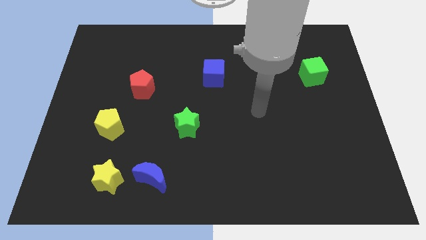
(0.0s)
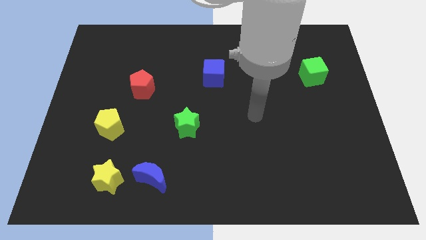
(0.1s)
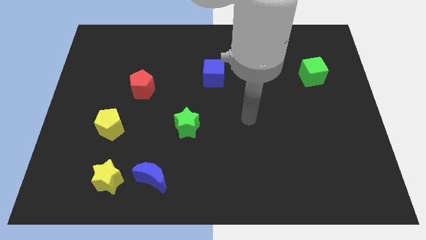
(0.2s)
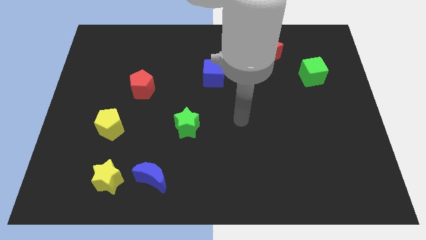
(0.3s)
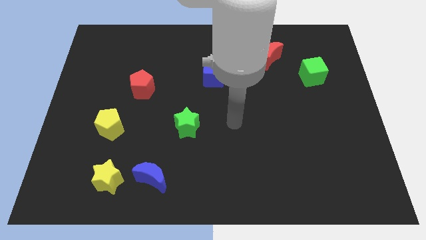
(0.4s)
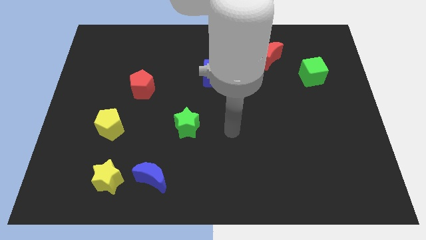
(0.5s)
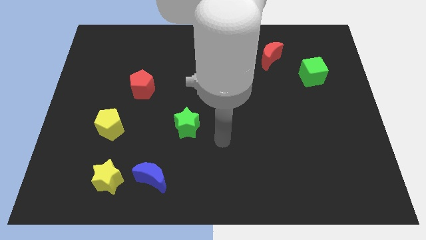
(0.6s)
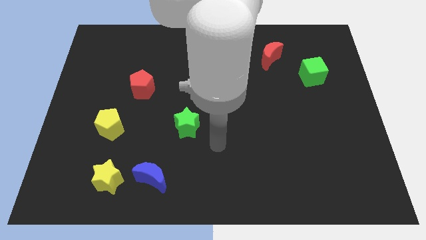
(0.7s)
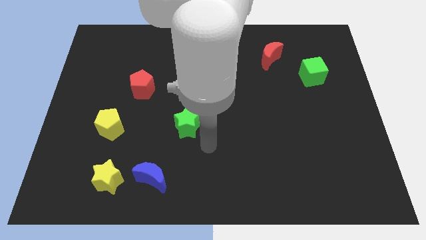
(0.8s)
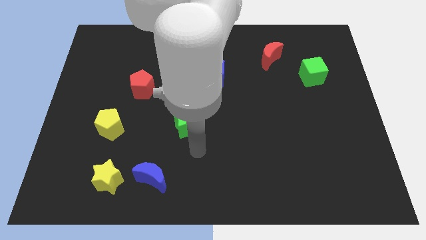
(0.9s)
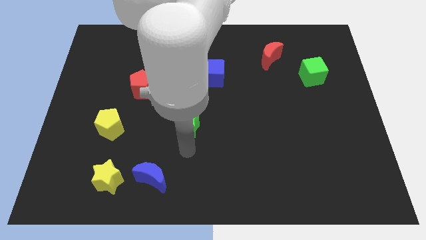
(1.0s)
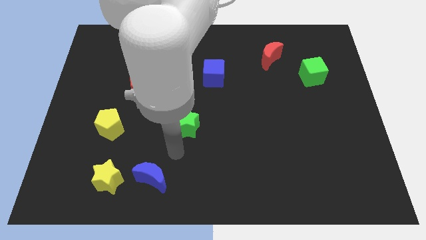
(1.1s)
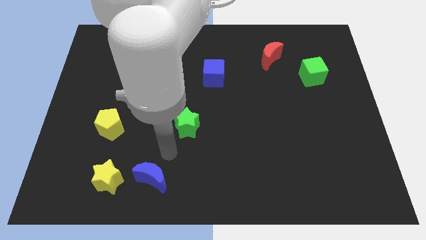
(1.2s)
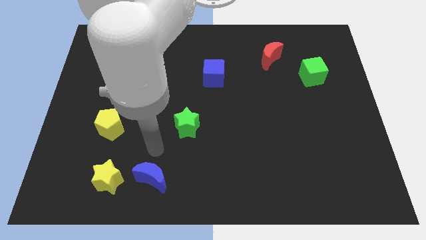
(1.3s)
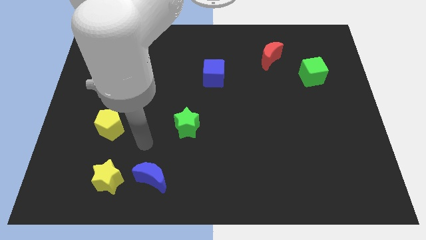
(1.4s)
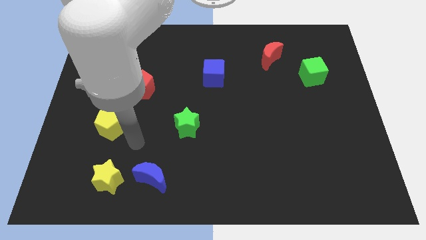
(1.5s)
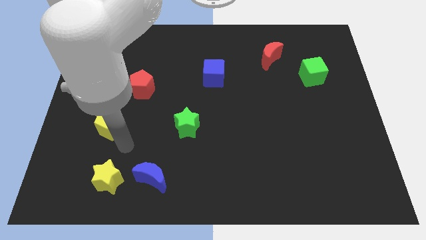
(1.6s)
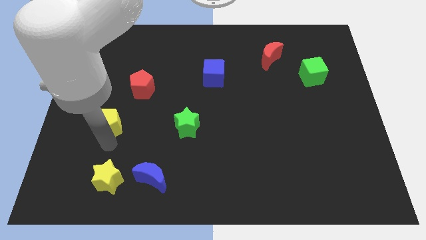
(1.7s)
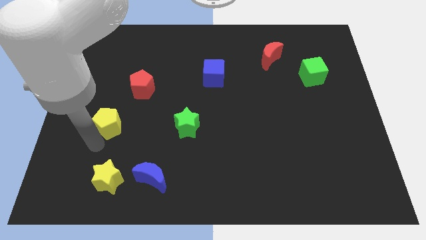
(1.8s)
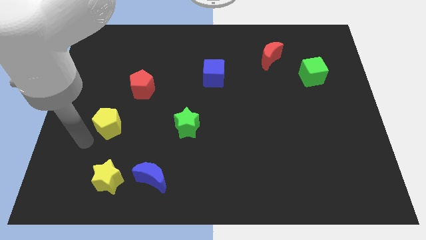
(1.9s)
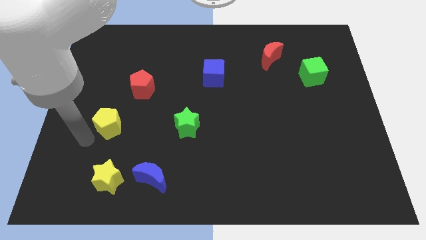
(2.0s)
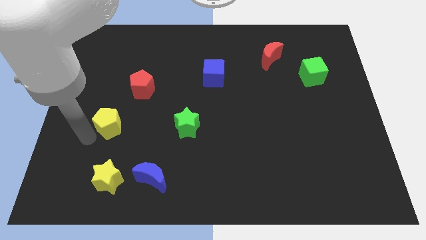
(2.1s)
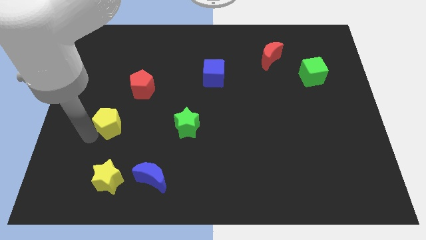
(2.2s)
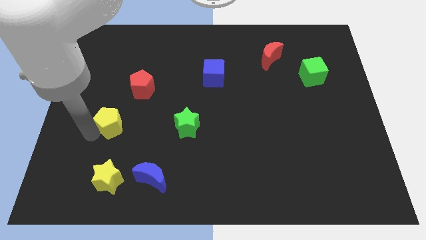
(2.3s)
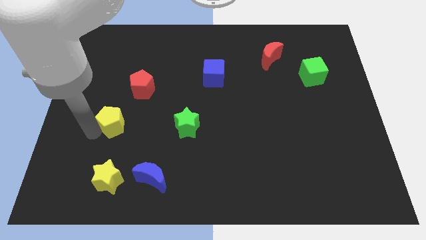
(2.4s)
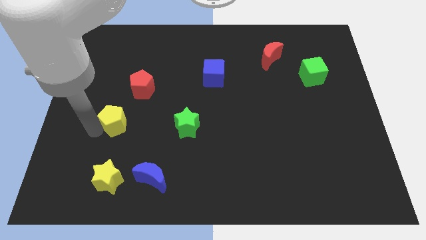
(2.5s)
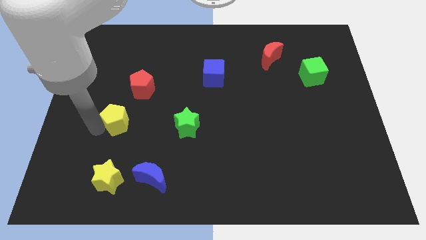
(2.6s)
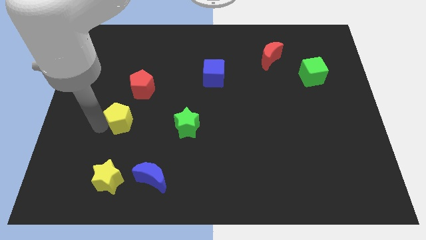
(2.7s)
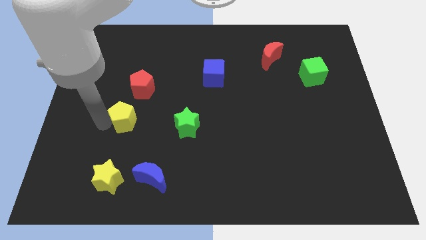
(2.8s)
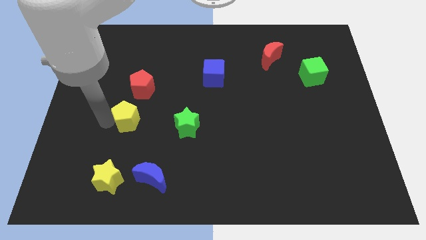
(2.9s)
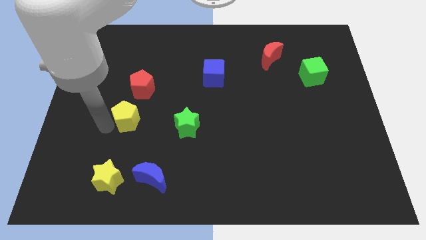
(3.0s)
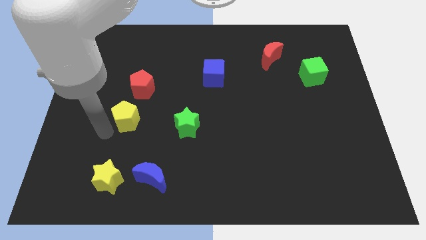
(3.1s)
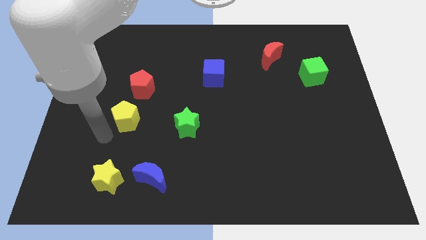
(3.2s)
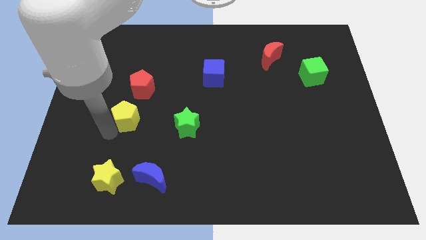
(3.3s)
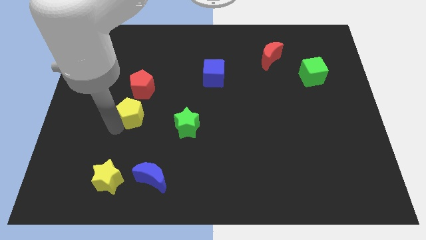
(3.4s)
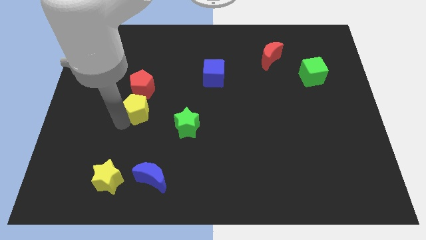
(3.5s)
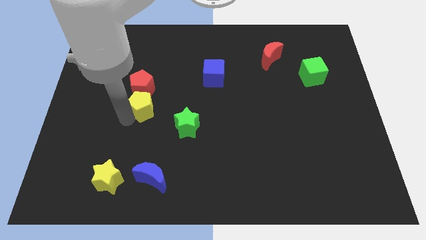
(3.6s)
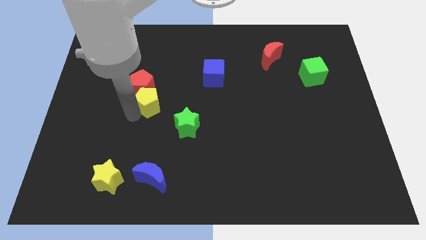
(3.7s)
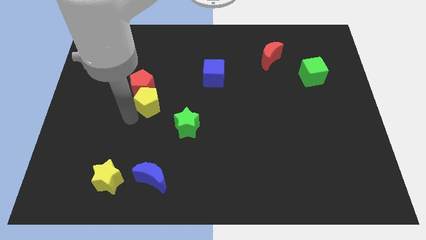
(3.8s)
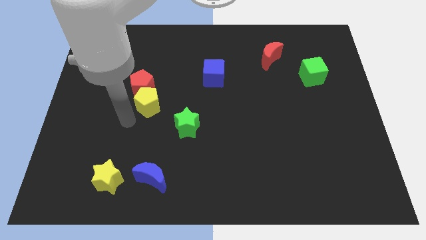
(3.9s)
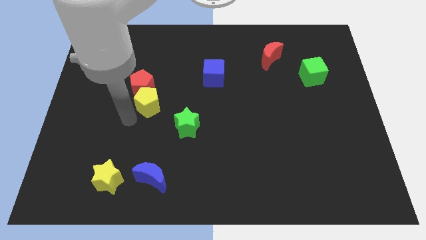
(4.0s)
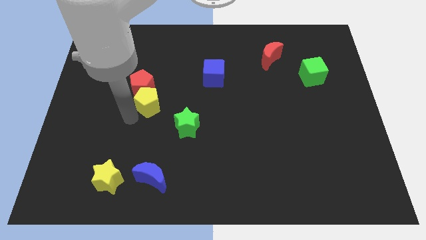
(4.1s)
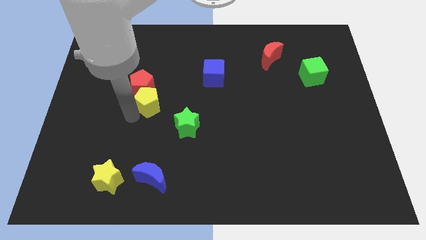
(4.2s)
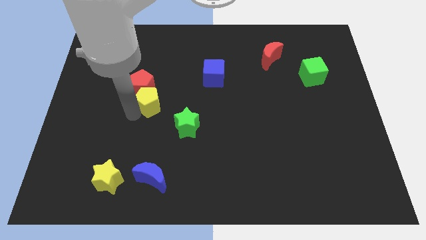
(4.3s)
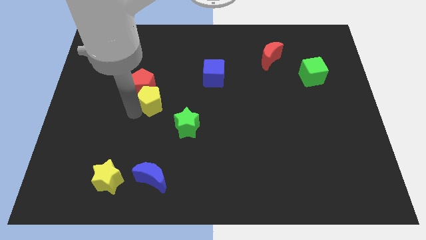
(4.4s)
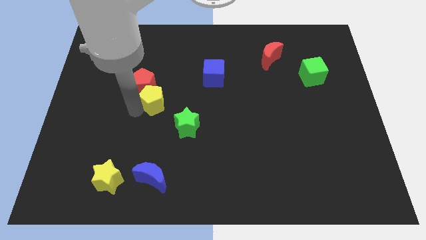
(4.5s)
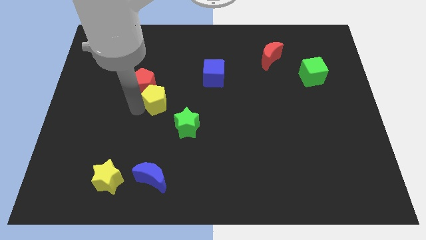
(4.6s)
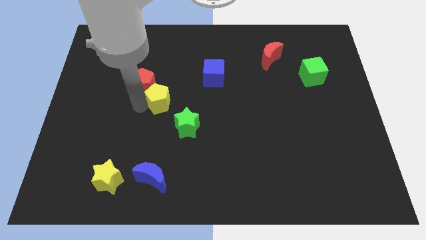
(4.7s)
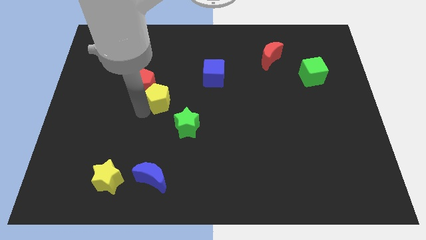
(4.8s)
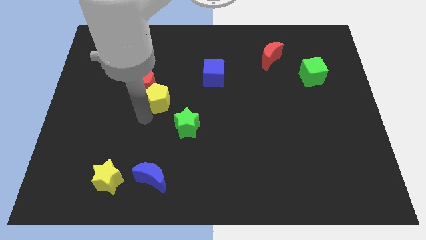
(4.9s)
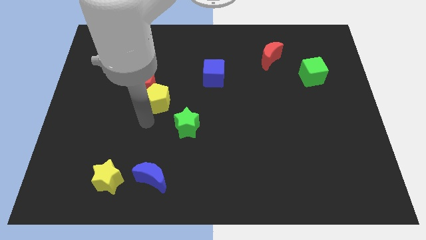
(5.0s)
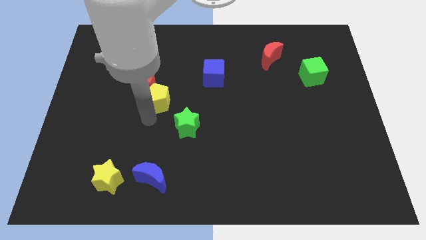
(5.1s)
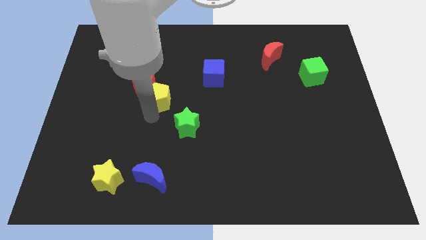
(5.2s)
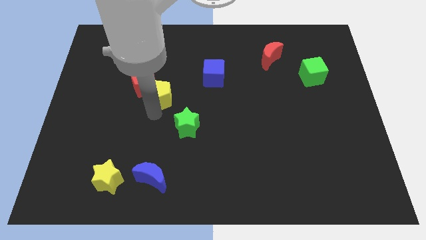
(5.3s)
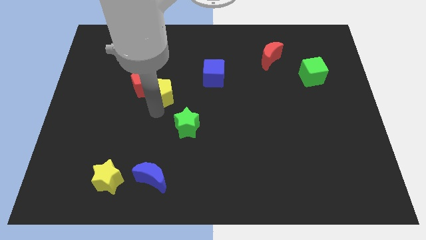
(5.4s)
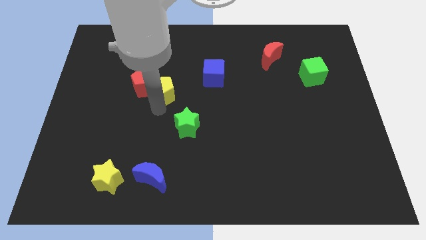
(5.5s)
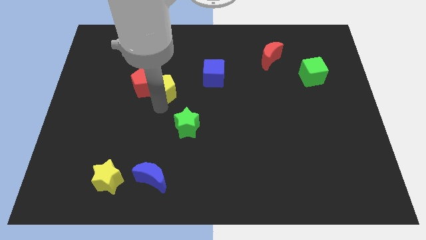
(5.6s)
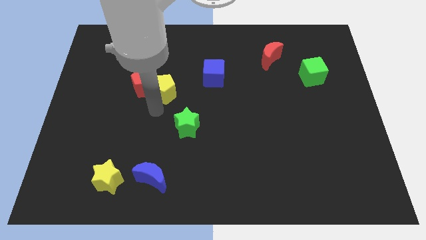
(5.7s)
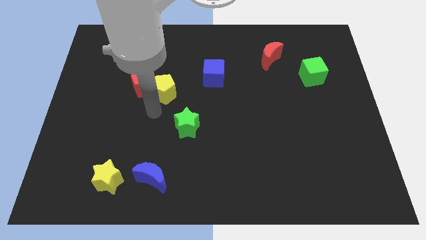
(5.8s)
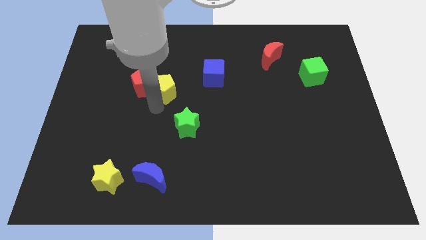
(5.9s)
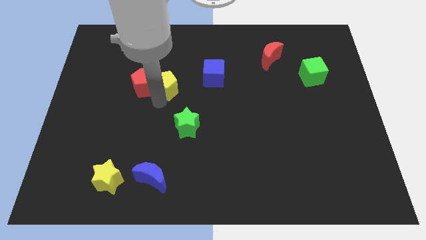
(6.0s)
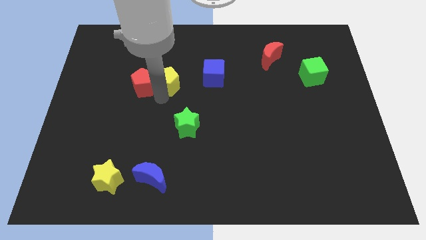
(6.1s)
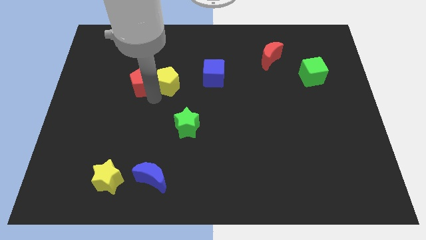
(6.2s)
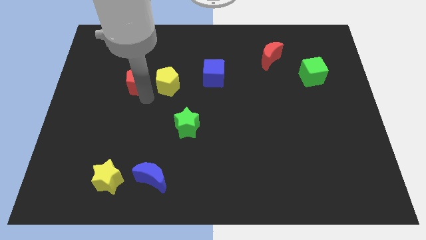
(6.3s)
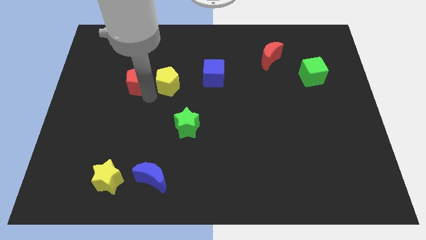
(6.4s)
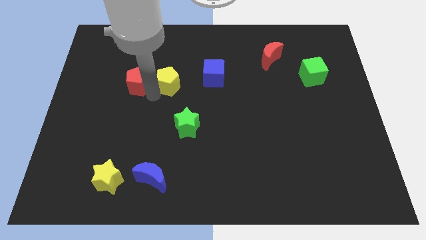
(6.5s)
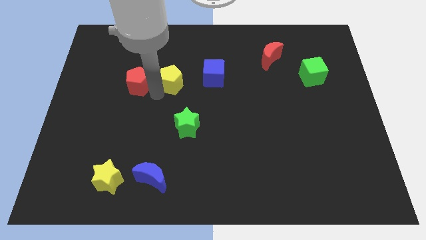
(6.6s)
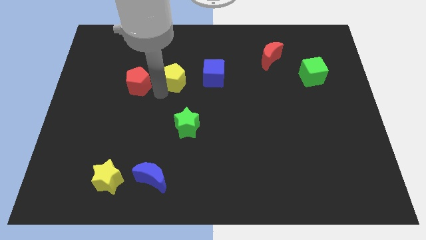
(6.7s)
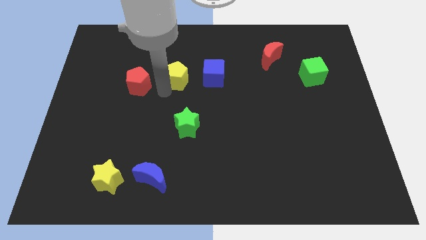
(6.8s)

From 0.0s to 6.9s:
push the yellow pentagon upwards and then to the right

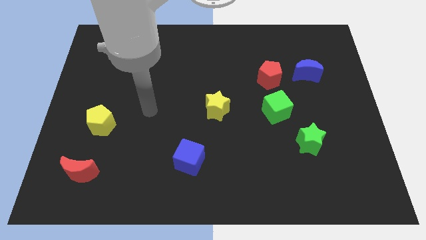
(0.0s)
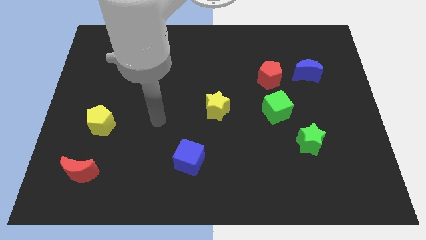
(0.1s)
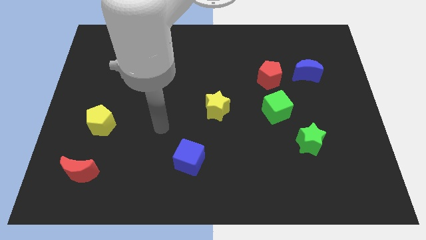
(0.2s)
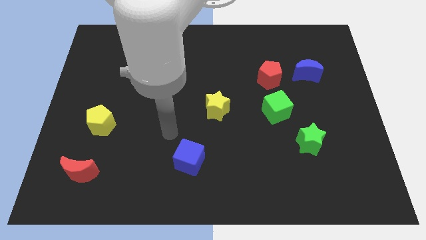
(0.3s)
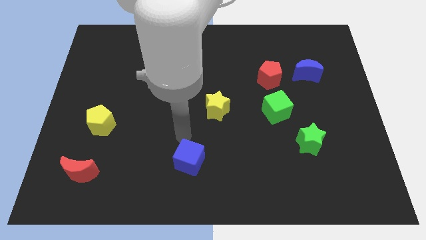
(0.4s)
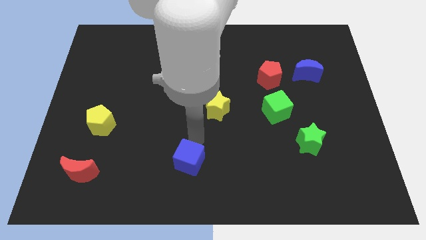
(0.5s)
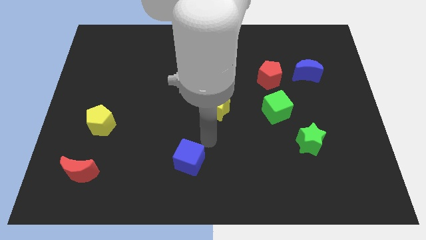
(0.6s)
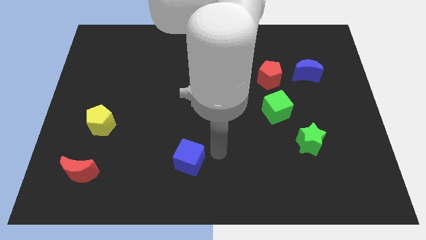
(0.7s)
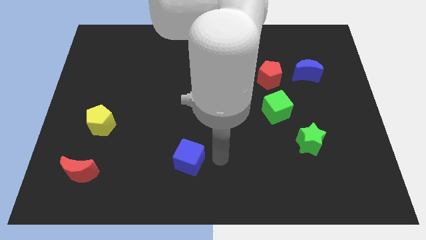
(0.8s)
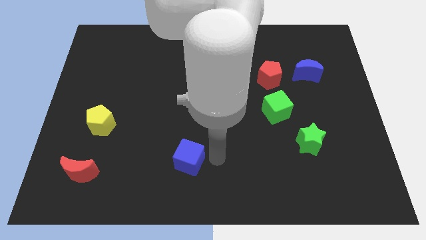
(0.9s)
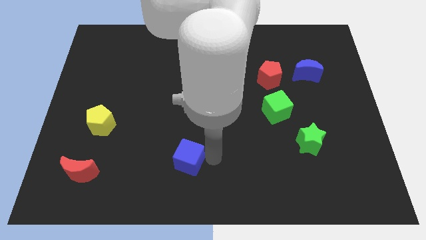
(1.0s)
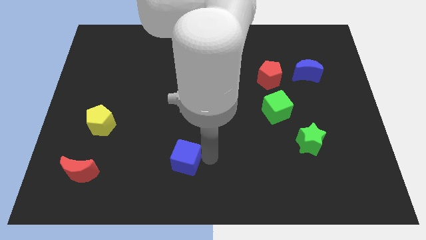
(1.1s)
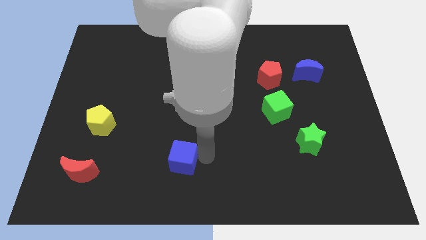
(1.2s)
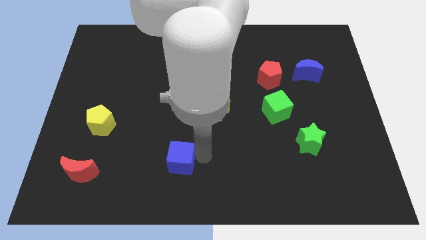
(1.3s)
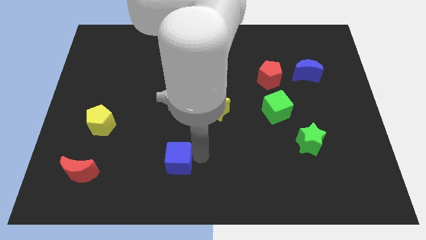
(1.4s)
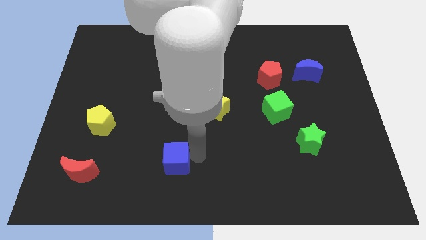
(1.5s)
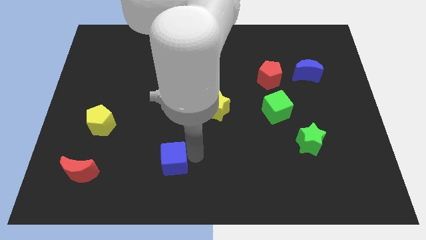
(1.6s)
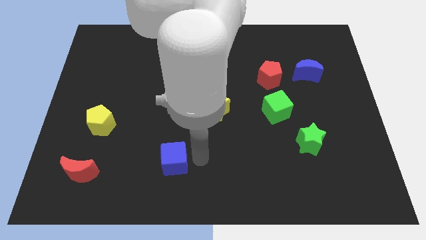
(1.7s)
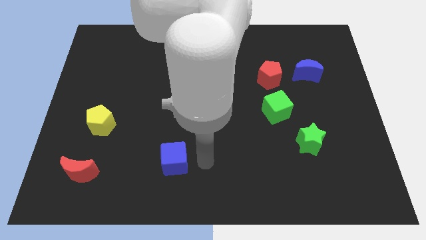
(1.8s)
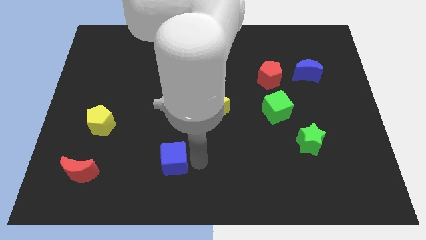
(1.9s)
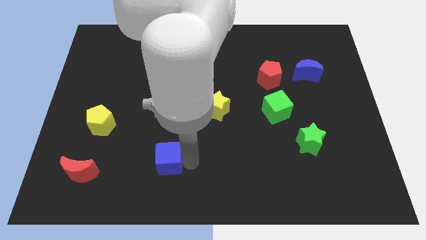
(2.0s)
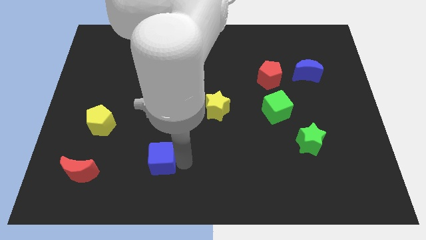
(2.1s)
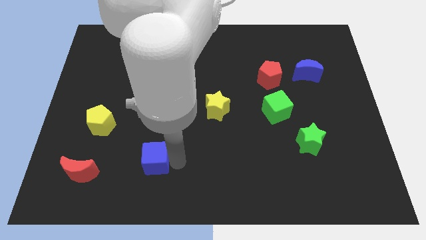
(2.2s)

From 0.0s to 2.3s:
slightly push the blue cube to the left
